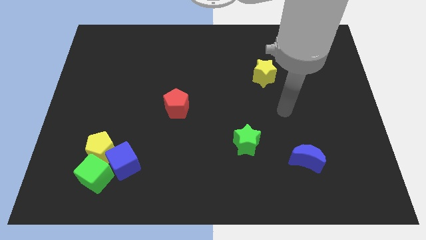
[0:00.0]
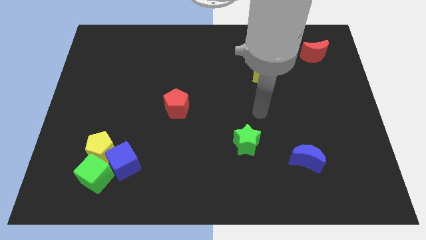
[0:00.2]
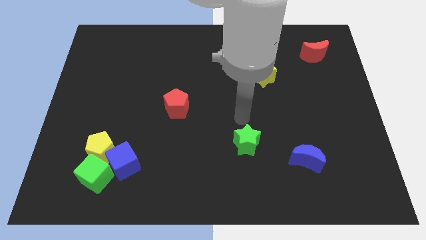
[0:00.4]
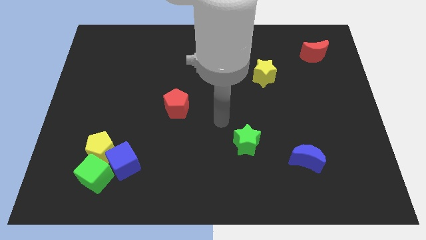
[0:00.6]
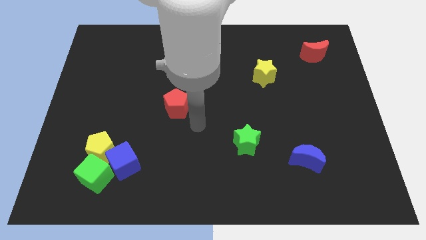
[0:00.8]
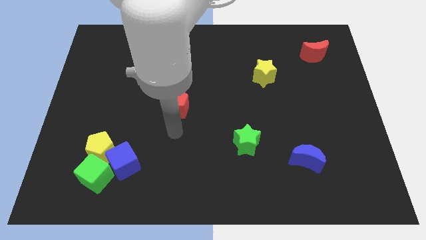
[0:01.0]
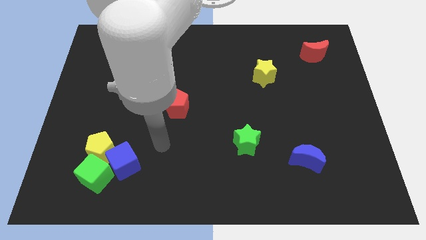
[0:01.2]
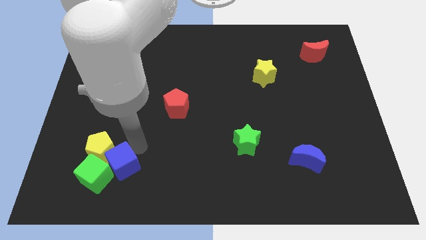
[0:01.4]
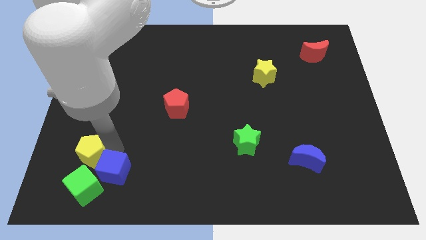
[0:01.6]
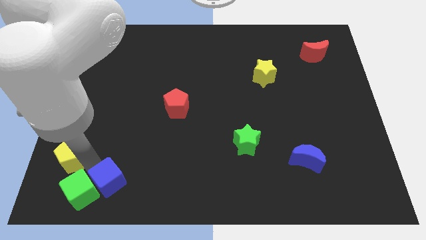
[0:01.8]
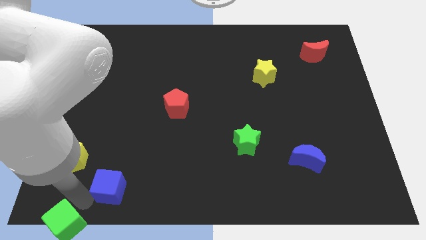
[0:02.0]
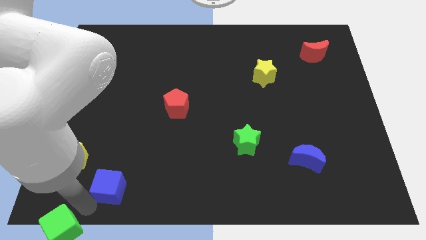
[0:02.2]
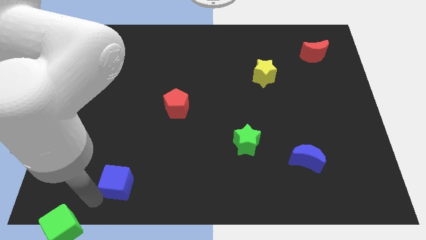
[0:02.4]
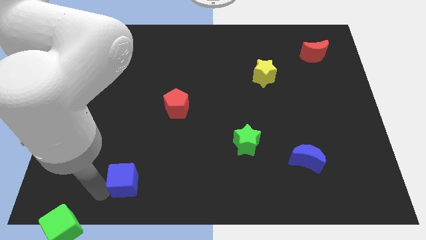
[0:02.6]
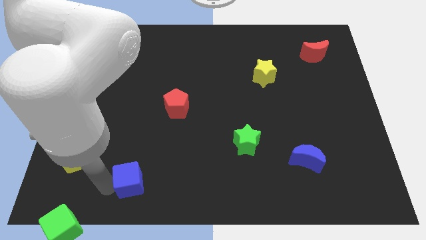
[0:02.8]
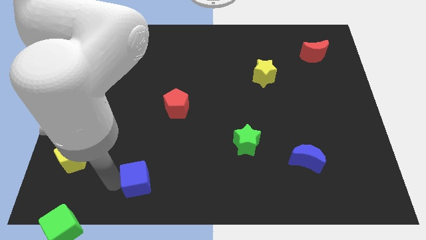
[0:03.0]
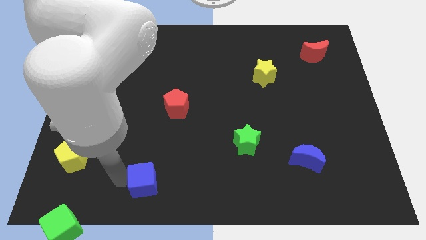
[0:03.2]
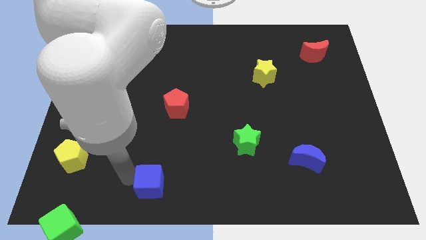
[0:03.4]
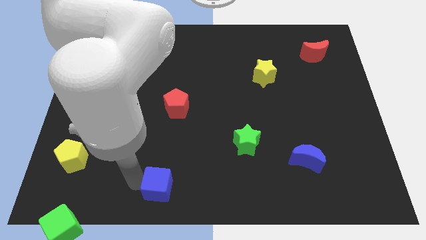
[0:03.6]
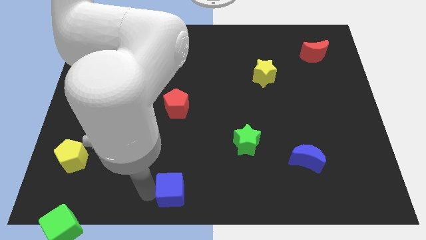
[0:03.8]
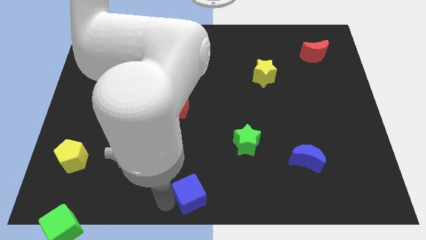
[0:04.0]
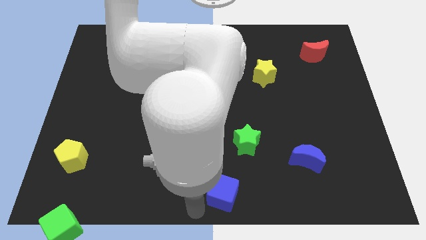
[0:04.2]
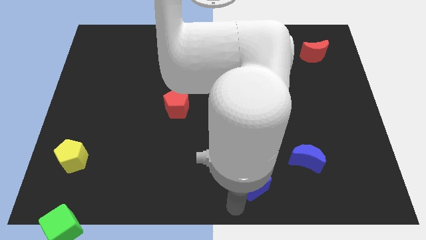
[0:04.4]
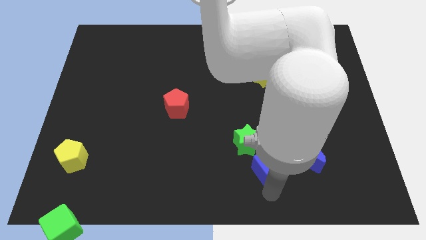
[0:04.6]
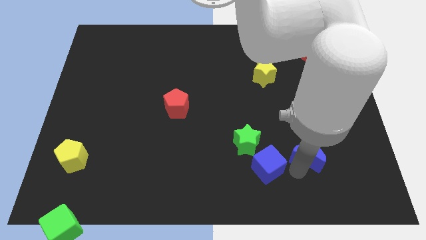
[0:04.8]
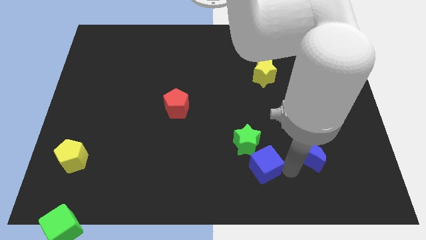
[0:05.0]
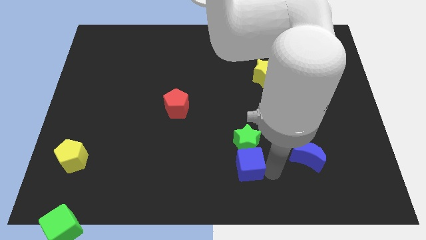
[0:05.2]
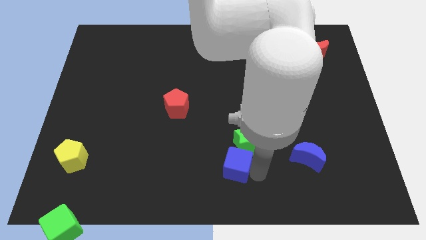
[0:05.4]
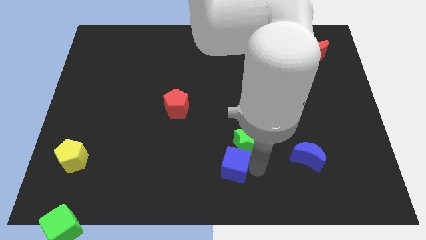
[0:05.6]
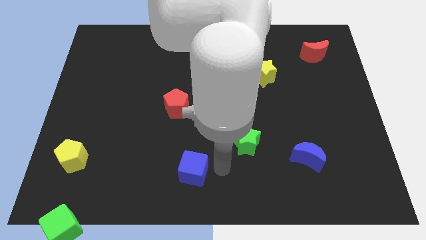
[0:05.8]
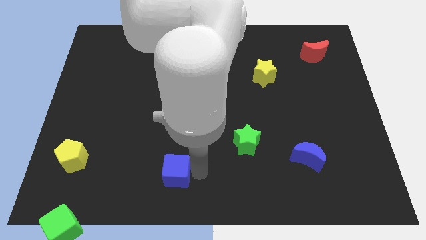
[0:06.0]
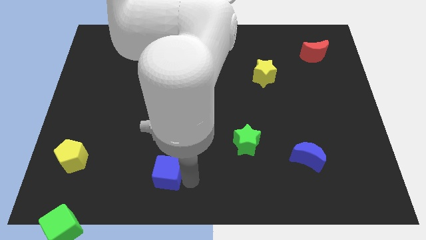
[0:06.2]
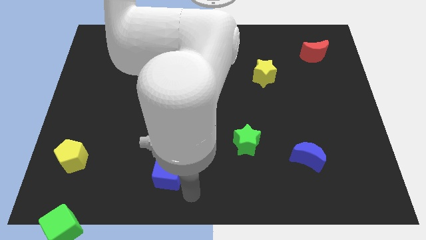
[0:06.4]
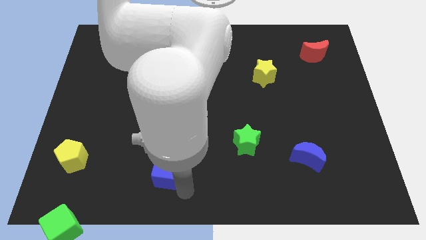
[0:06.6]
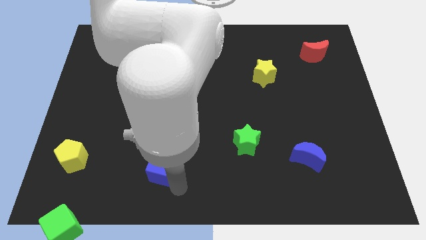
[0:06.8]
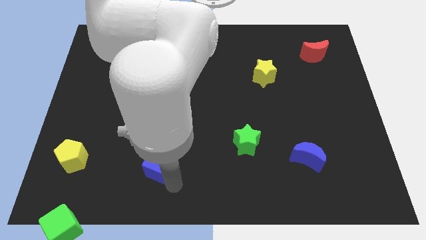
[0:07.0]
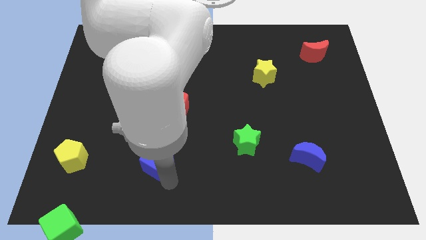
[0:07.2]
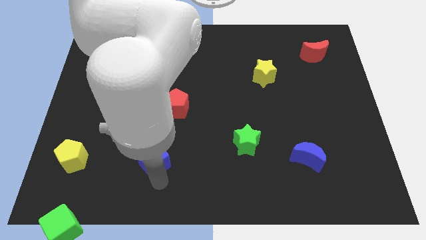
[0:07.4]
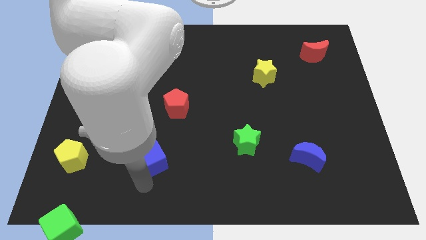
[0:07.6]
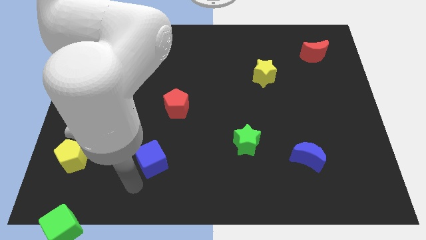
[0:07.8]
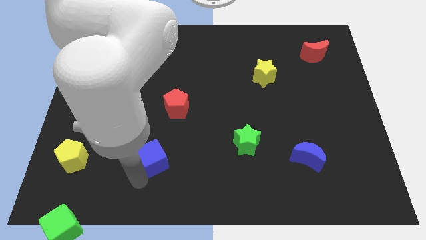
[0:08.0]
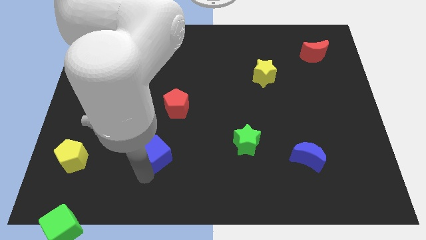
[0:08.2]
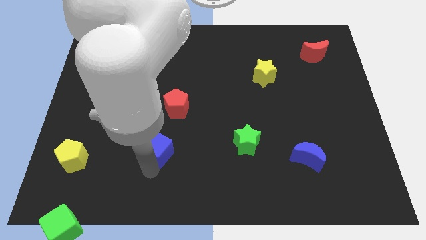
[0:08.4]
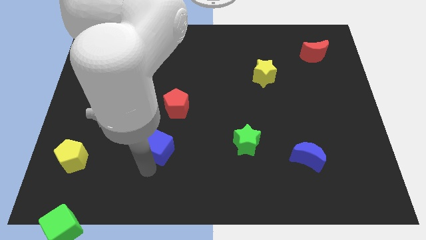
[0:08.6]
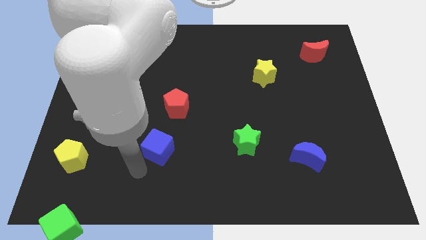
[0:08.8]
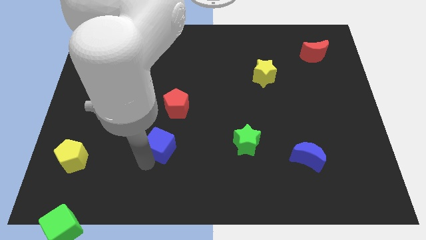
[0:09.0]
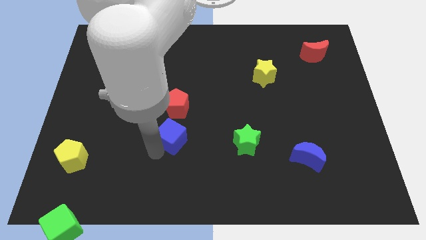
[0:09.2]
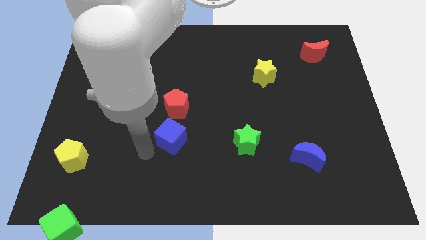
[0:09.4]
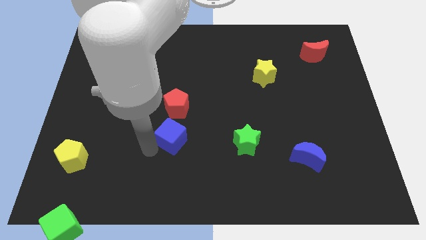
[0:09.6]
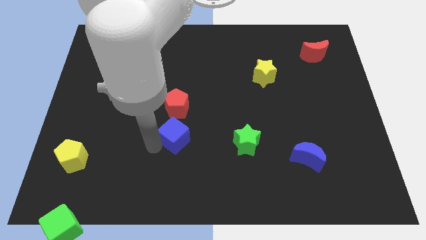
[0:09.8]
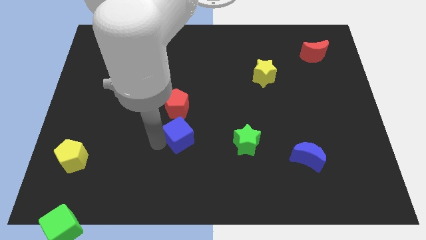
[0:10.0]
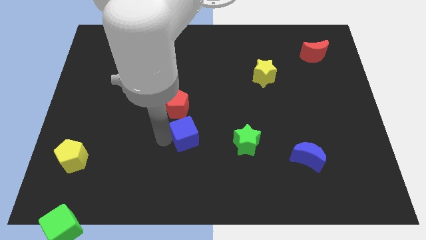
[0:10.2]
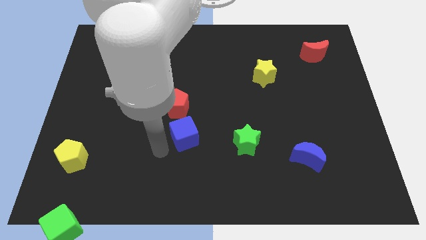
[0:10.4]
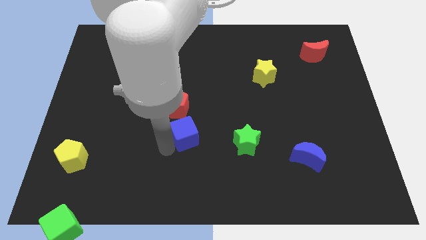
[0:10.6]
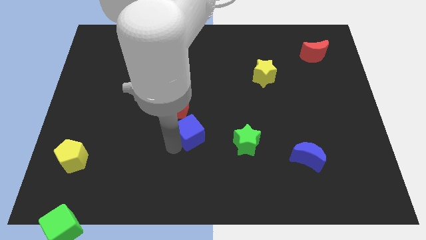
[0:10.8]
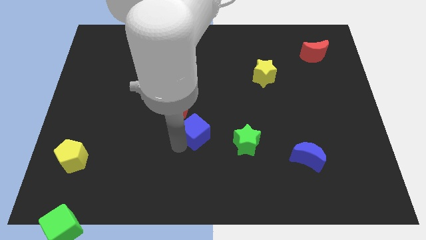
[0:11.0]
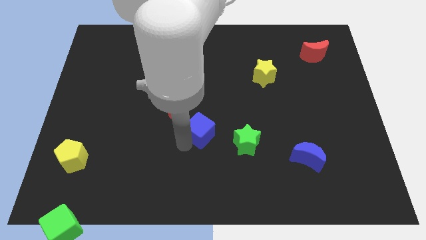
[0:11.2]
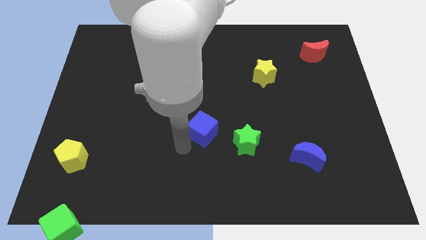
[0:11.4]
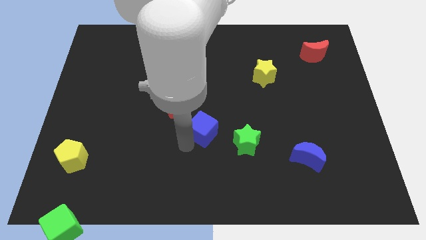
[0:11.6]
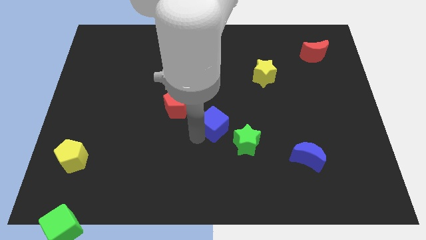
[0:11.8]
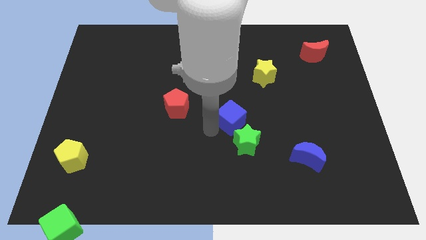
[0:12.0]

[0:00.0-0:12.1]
move the blue cube to the top of the green star

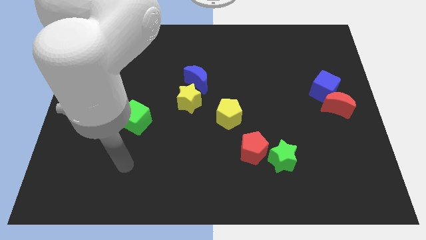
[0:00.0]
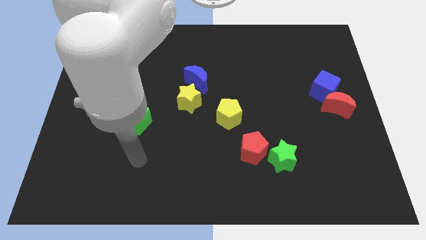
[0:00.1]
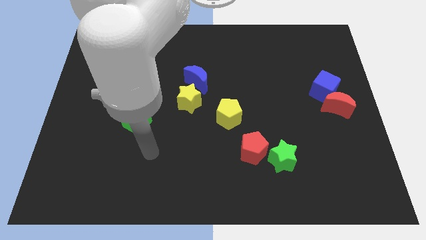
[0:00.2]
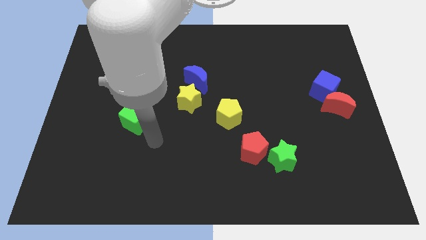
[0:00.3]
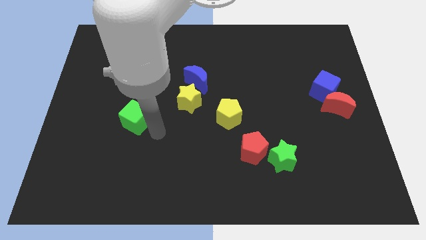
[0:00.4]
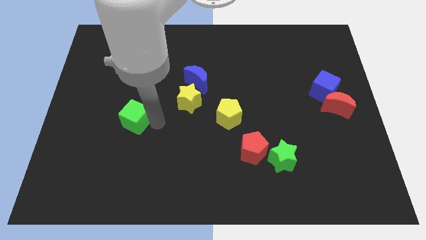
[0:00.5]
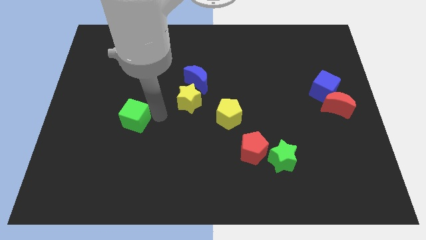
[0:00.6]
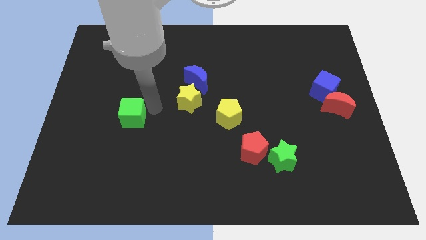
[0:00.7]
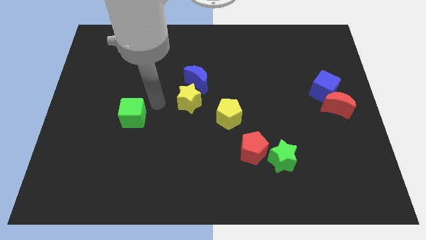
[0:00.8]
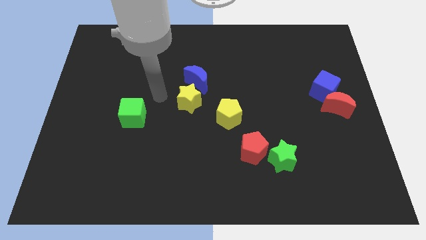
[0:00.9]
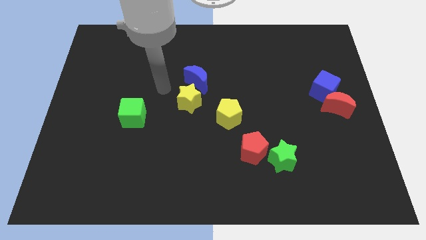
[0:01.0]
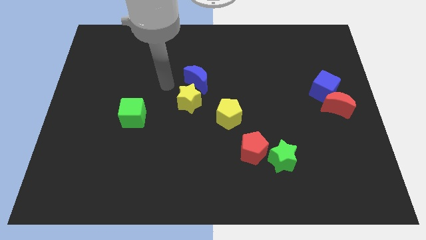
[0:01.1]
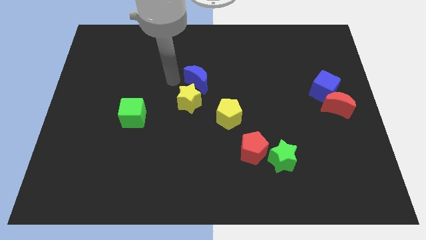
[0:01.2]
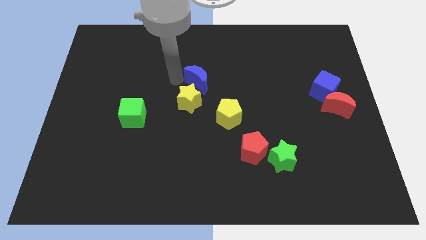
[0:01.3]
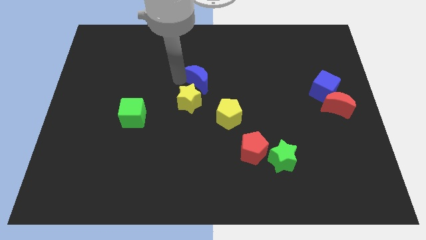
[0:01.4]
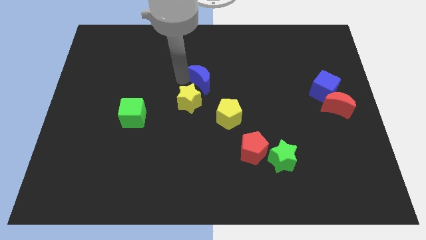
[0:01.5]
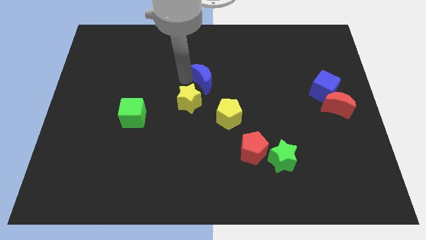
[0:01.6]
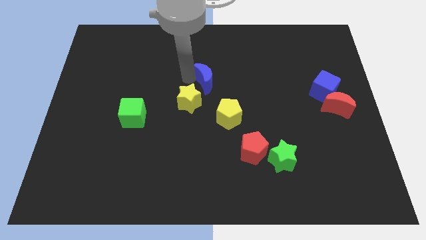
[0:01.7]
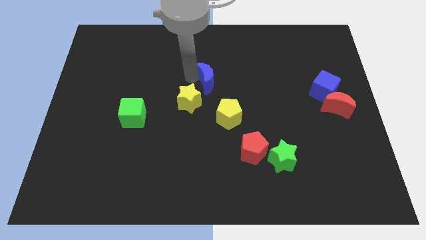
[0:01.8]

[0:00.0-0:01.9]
slide the blue moon above the yellow pentagon
